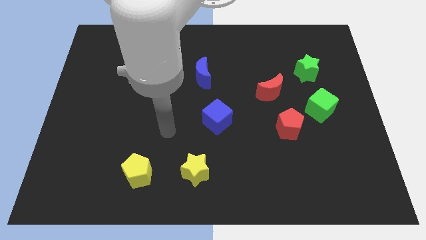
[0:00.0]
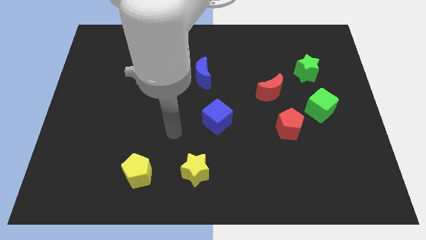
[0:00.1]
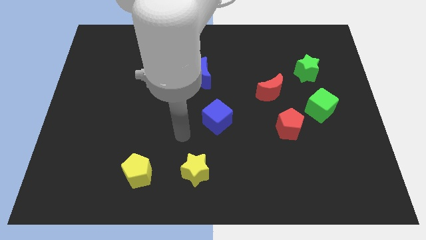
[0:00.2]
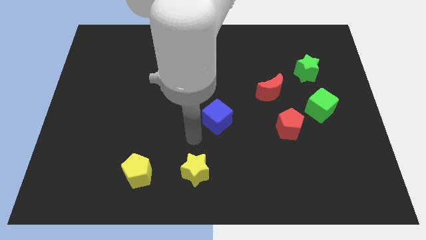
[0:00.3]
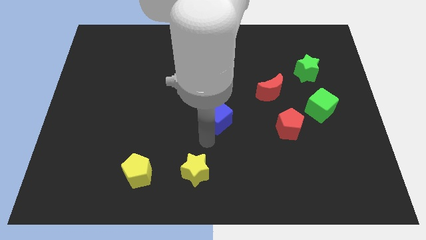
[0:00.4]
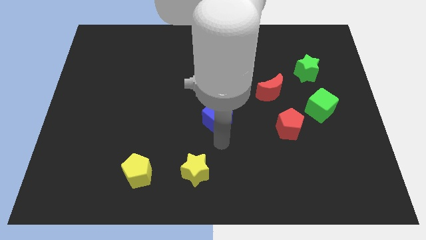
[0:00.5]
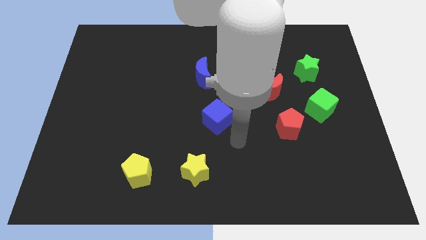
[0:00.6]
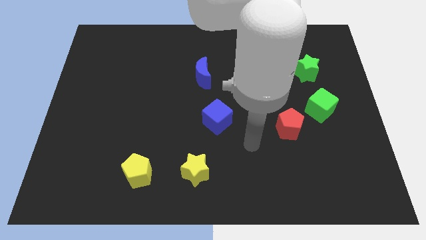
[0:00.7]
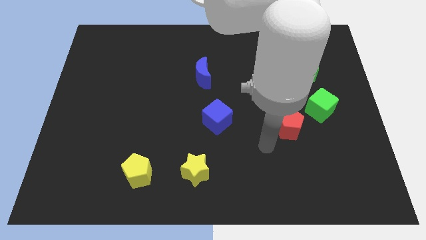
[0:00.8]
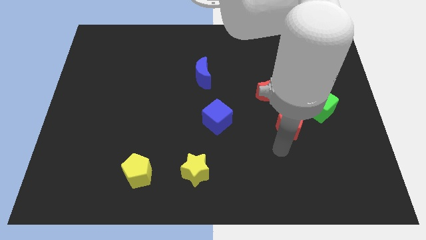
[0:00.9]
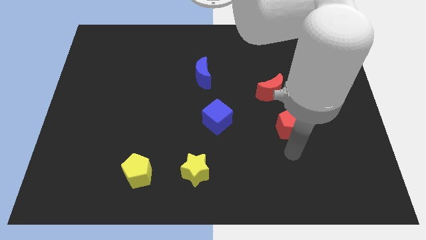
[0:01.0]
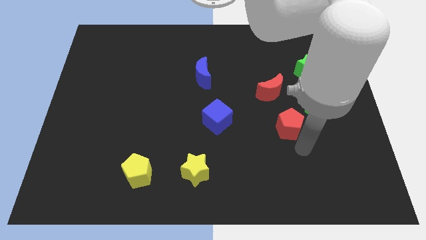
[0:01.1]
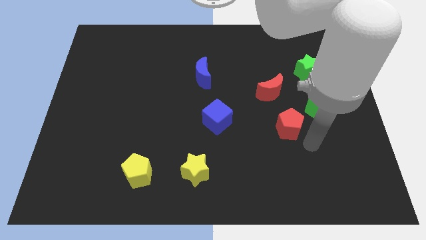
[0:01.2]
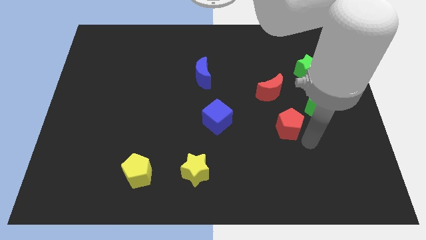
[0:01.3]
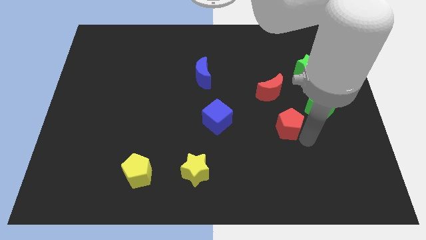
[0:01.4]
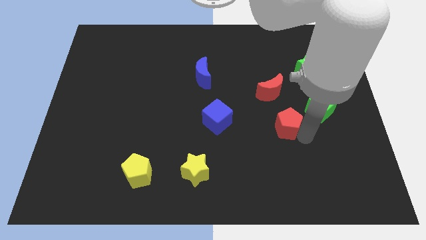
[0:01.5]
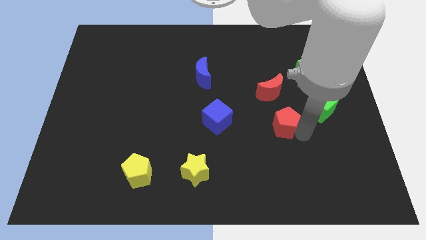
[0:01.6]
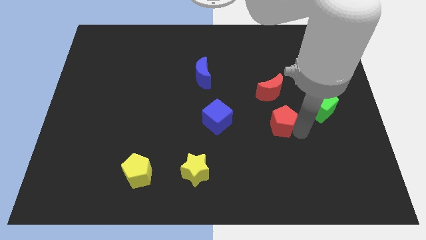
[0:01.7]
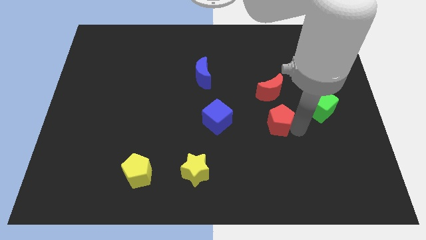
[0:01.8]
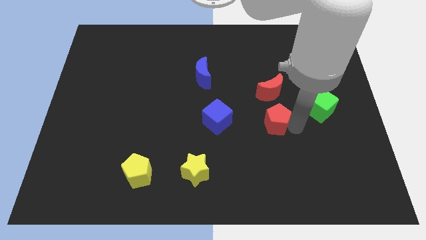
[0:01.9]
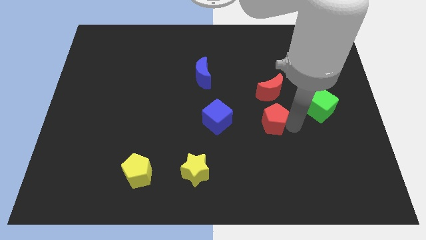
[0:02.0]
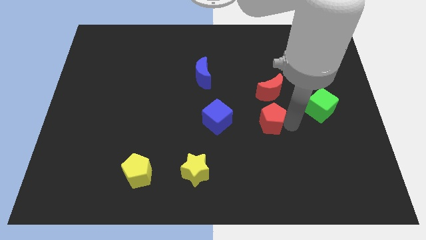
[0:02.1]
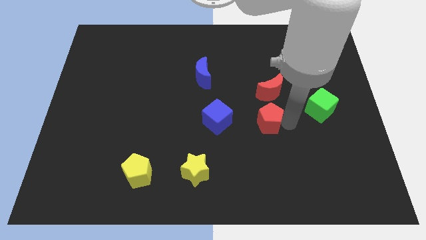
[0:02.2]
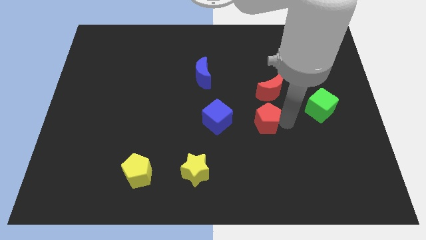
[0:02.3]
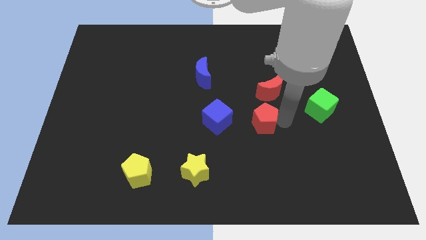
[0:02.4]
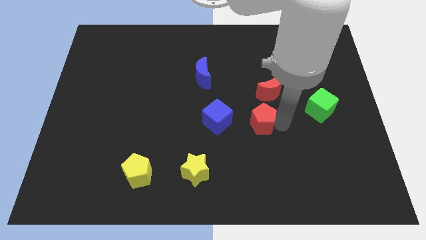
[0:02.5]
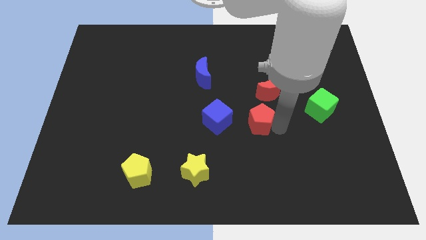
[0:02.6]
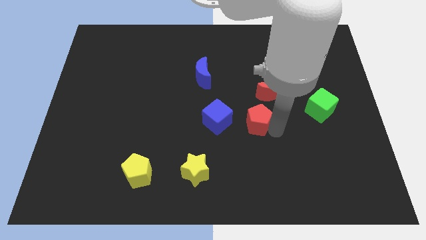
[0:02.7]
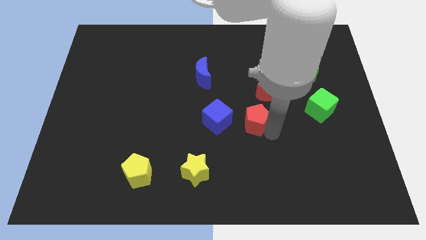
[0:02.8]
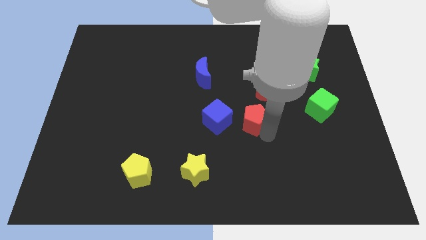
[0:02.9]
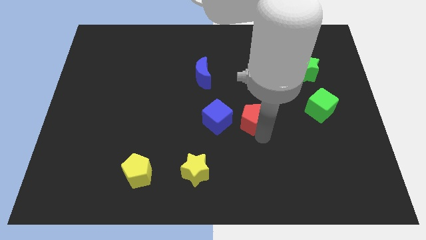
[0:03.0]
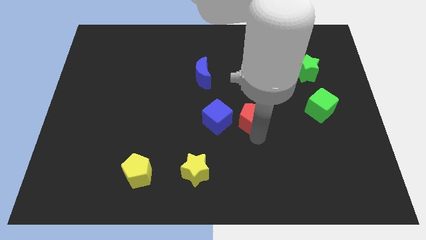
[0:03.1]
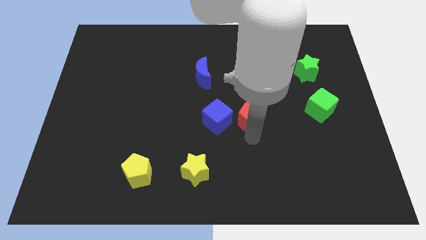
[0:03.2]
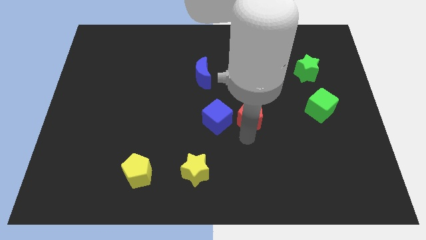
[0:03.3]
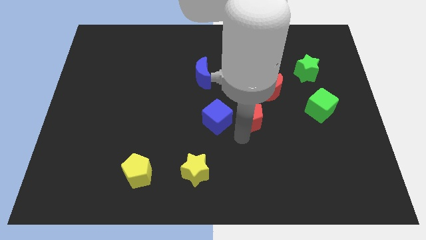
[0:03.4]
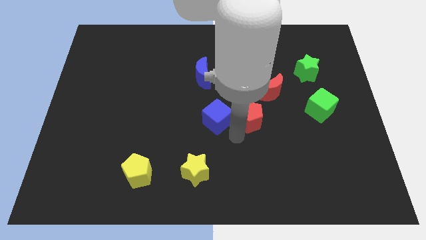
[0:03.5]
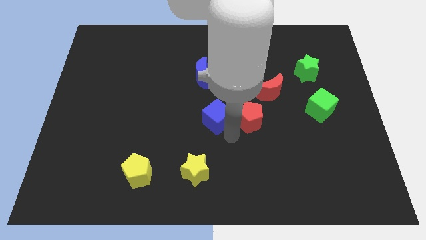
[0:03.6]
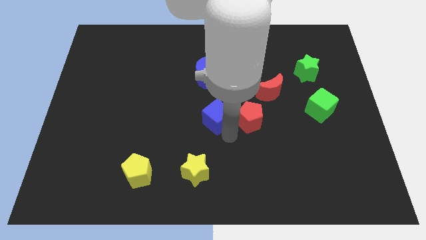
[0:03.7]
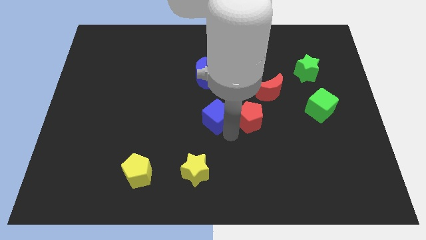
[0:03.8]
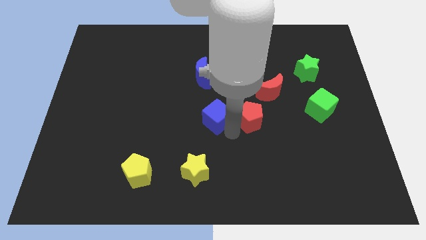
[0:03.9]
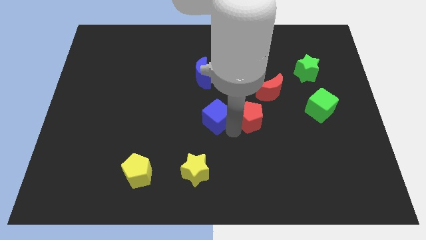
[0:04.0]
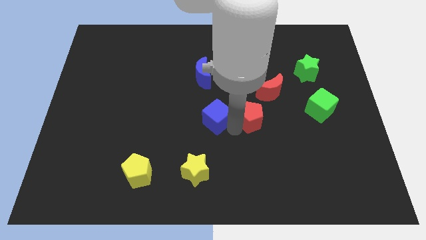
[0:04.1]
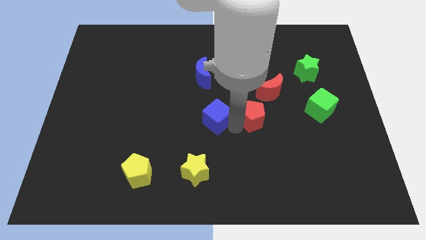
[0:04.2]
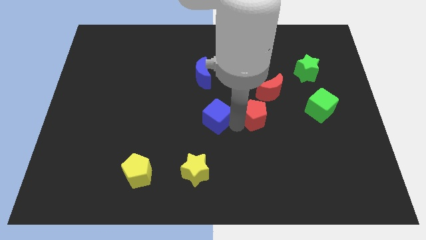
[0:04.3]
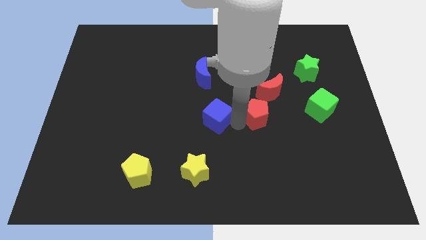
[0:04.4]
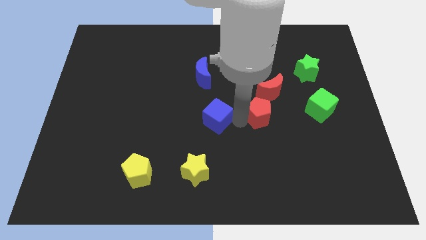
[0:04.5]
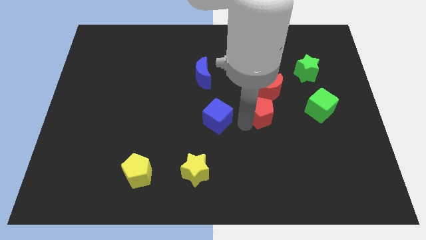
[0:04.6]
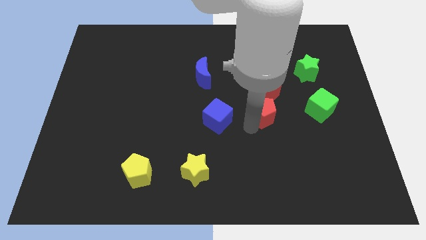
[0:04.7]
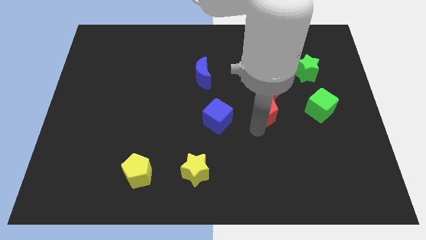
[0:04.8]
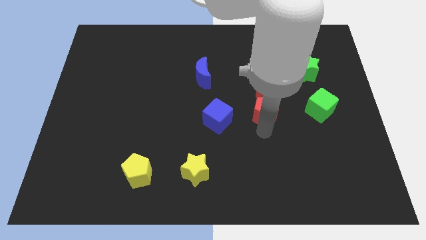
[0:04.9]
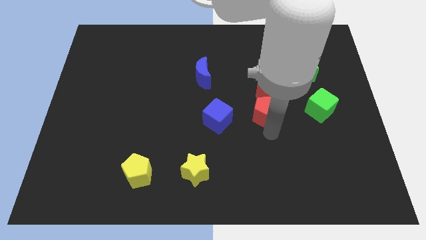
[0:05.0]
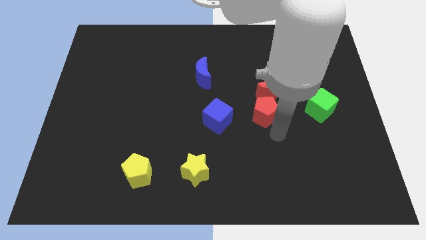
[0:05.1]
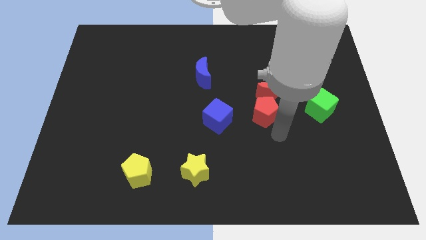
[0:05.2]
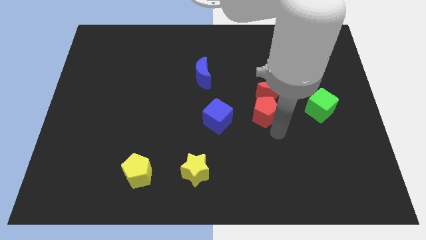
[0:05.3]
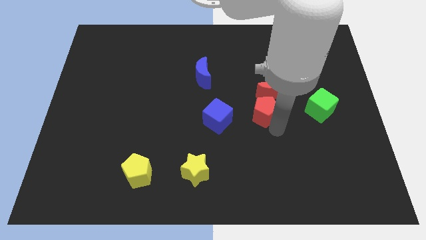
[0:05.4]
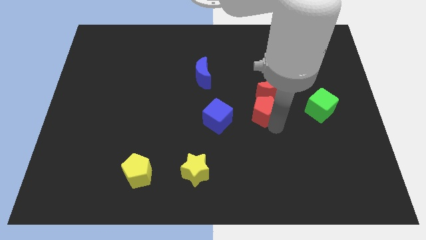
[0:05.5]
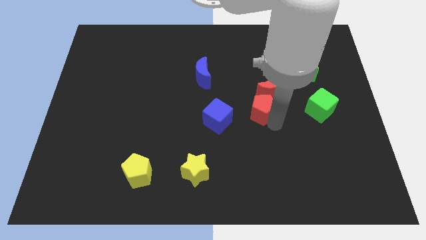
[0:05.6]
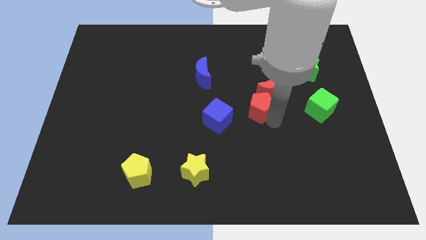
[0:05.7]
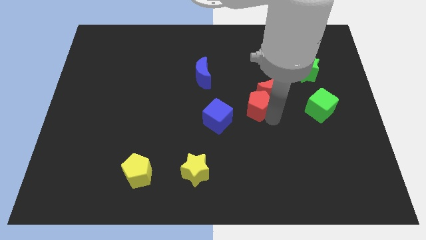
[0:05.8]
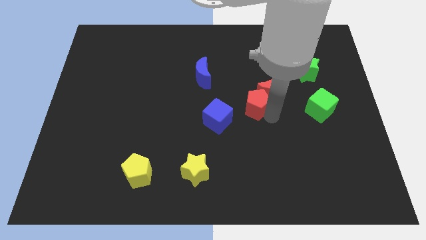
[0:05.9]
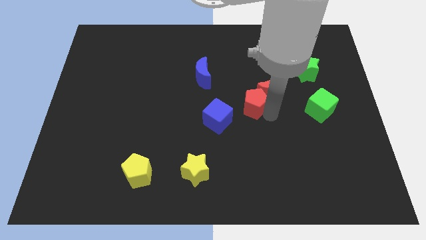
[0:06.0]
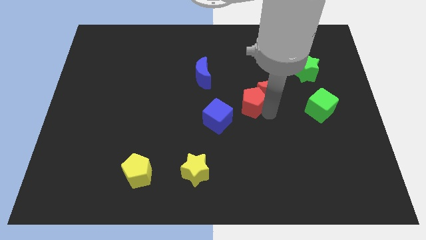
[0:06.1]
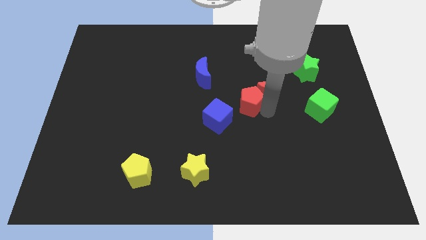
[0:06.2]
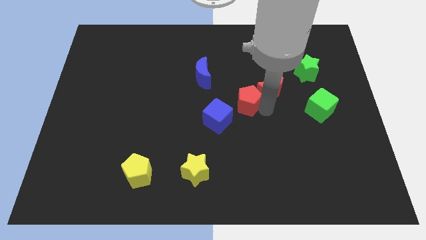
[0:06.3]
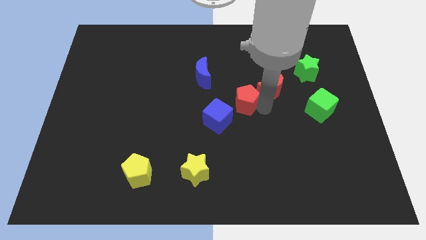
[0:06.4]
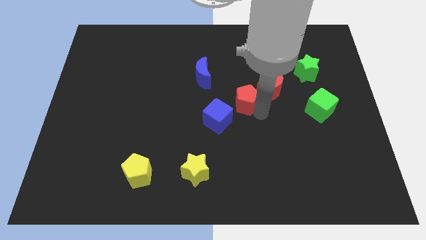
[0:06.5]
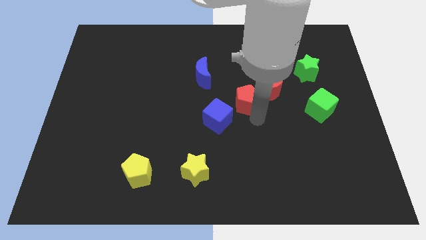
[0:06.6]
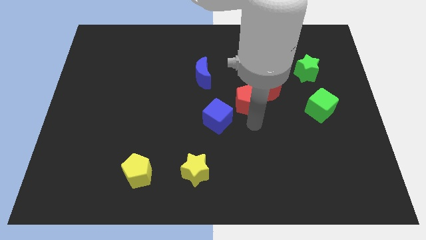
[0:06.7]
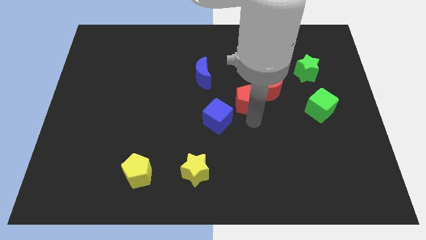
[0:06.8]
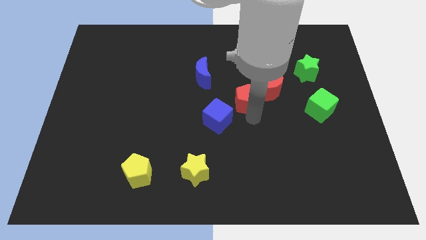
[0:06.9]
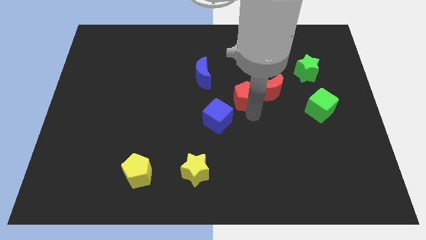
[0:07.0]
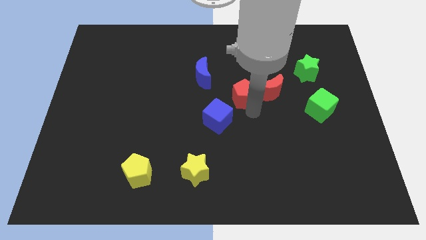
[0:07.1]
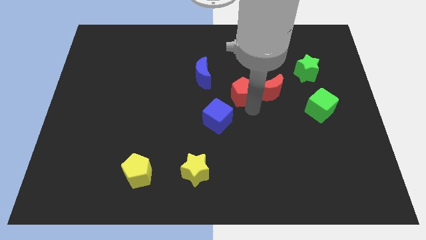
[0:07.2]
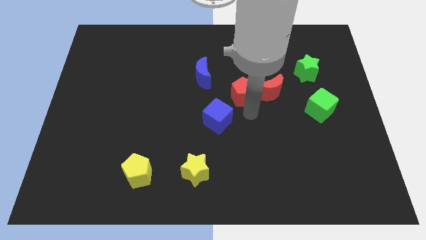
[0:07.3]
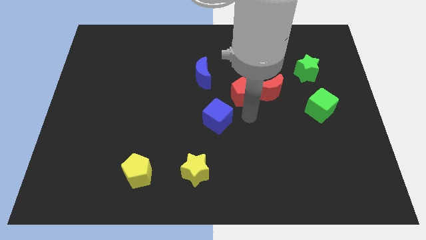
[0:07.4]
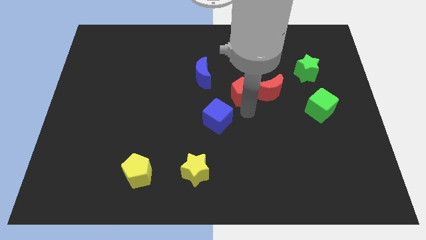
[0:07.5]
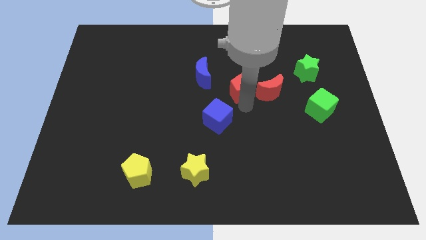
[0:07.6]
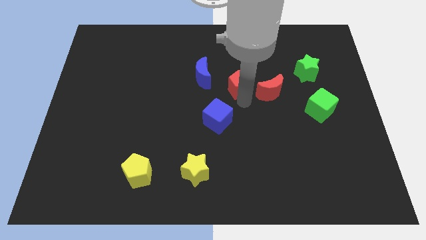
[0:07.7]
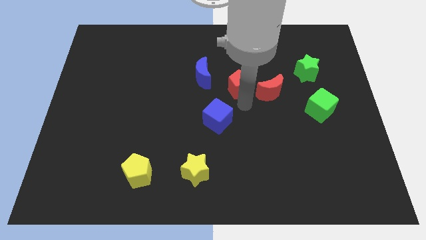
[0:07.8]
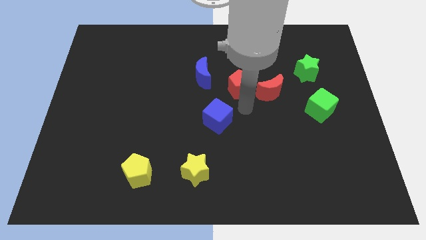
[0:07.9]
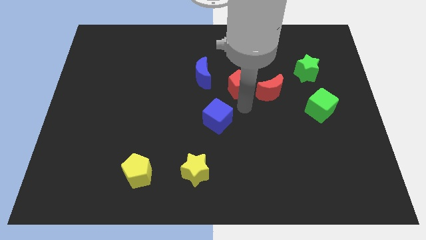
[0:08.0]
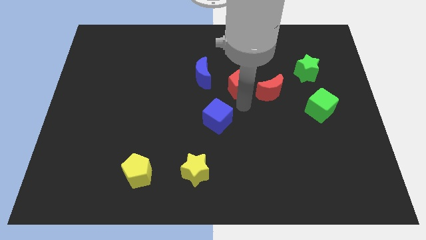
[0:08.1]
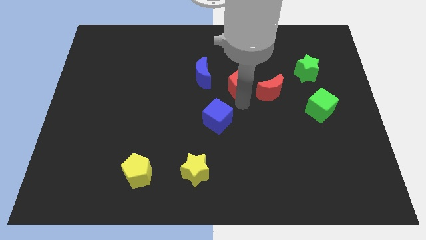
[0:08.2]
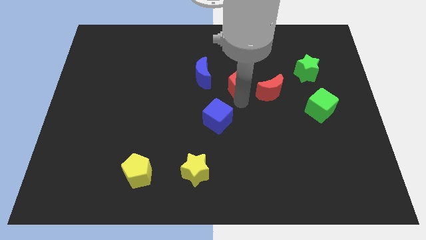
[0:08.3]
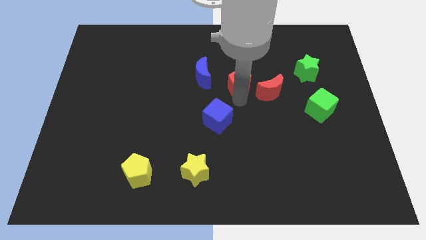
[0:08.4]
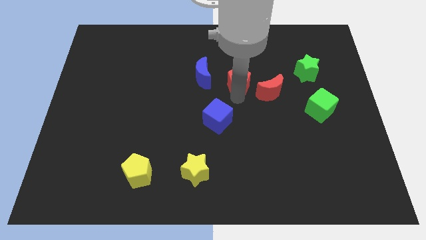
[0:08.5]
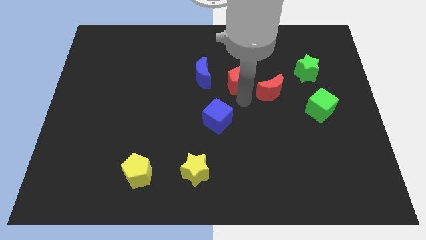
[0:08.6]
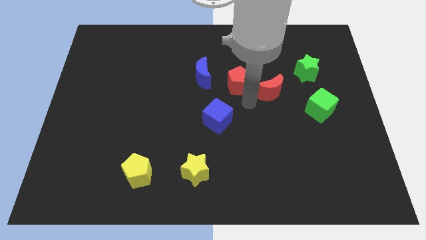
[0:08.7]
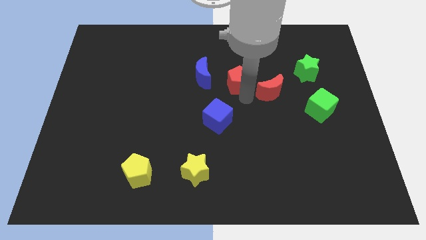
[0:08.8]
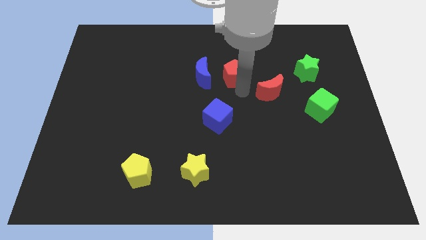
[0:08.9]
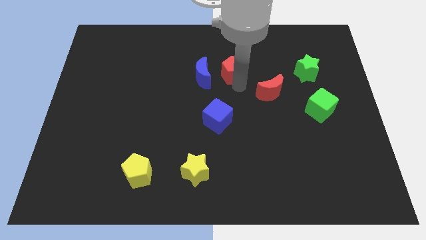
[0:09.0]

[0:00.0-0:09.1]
slide the red pentagon up and to the left
